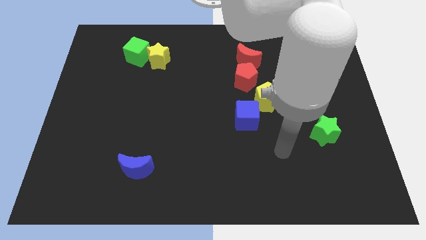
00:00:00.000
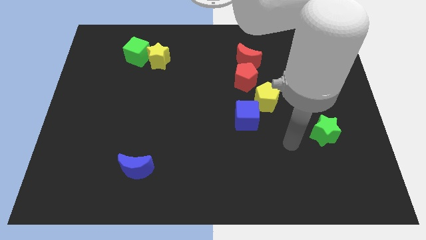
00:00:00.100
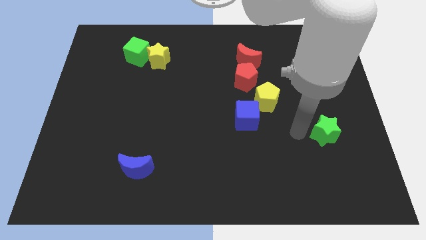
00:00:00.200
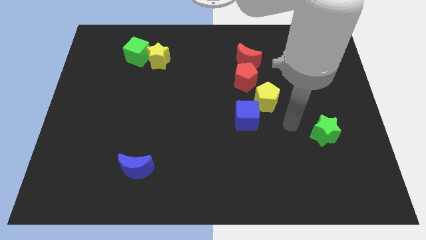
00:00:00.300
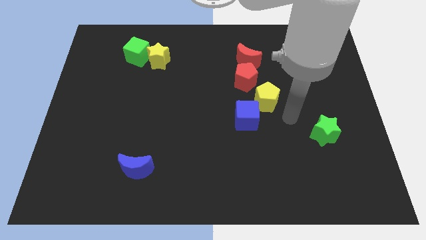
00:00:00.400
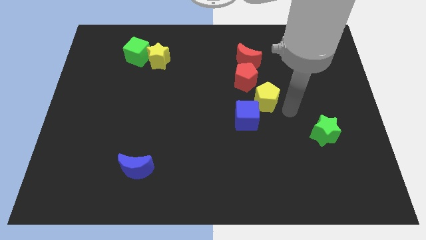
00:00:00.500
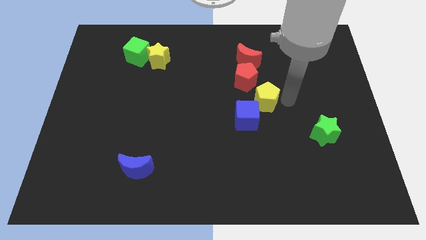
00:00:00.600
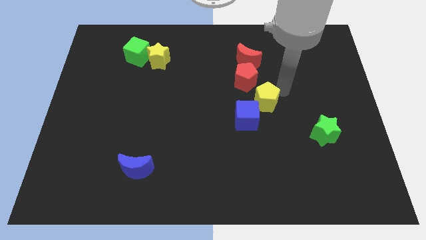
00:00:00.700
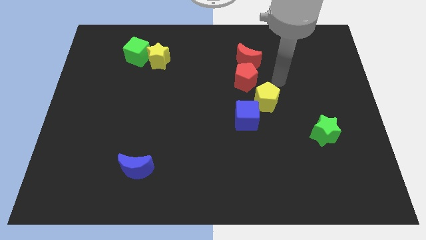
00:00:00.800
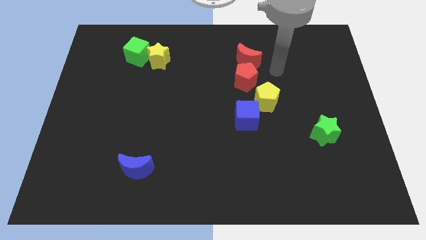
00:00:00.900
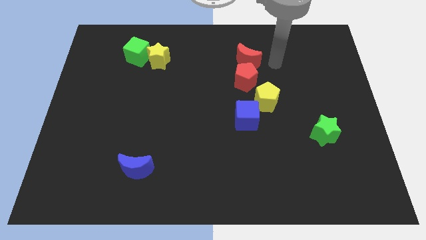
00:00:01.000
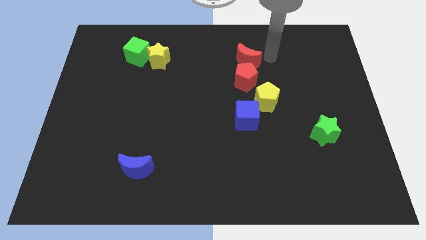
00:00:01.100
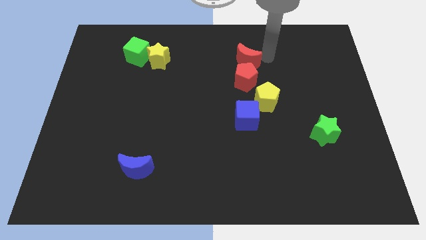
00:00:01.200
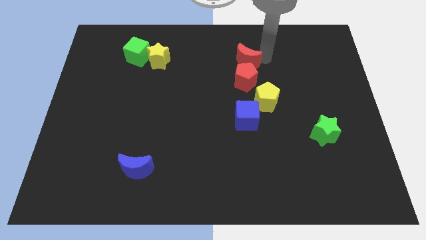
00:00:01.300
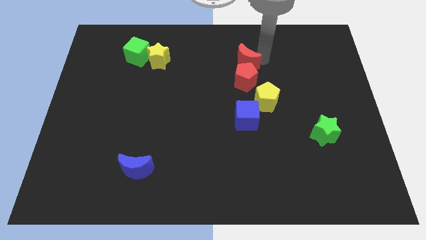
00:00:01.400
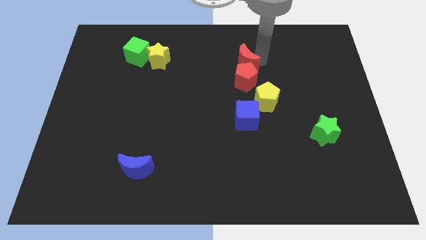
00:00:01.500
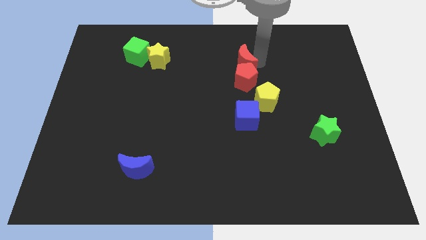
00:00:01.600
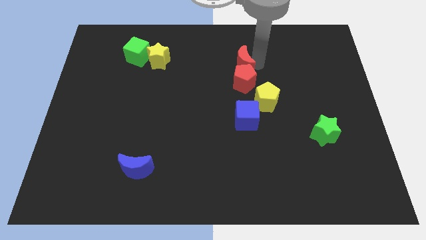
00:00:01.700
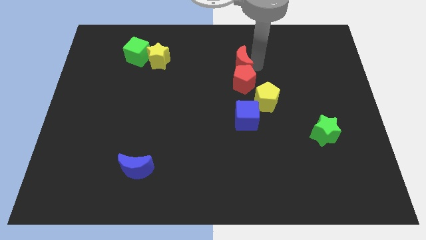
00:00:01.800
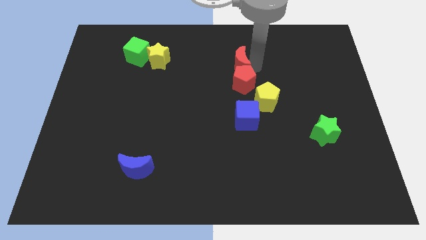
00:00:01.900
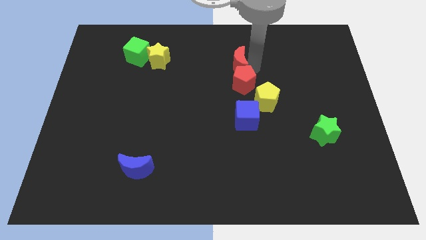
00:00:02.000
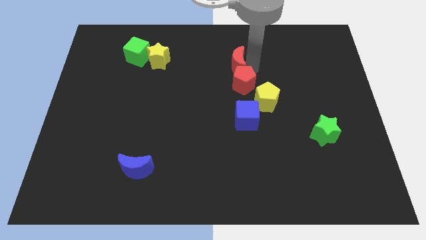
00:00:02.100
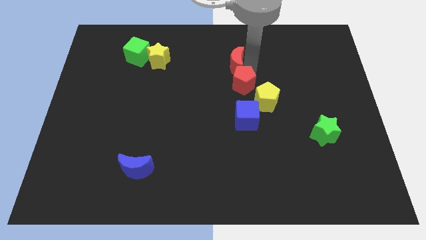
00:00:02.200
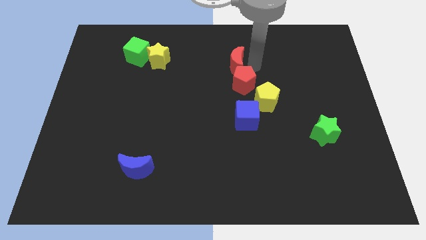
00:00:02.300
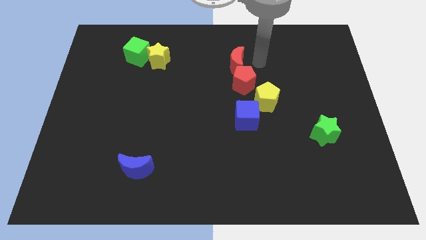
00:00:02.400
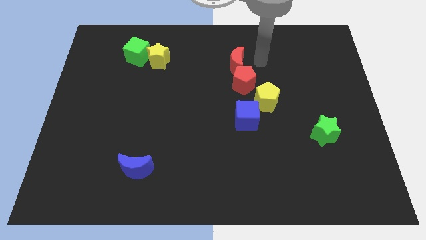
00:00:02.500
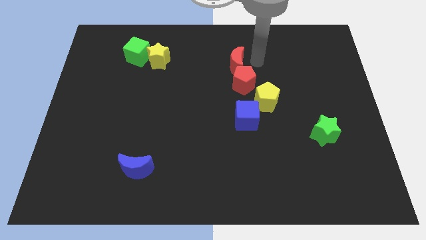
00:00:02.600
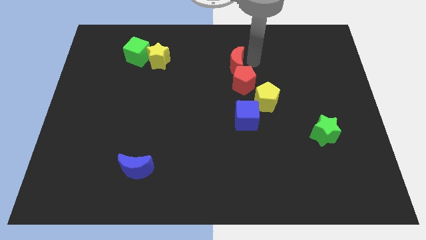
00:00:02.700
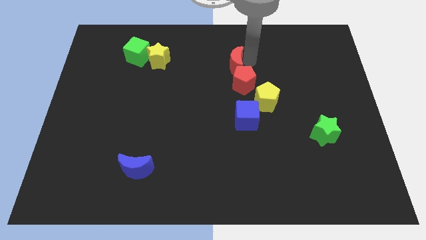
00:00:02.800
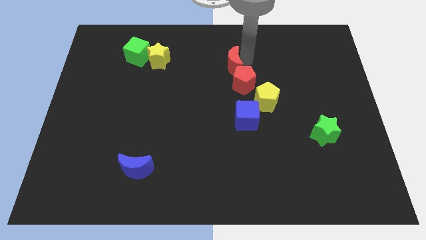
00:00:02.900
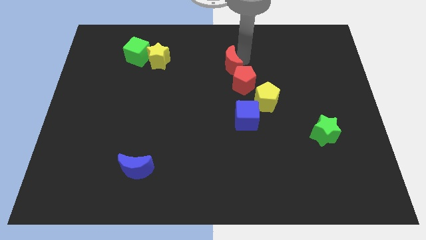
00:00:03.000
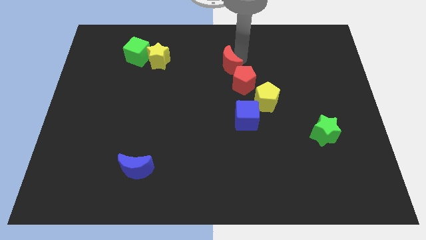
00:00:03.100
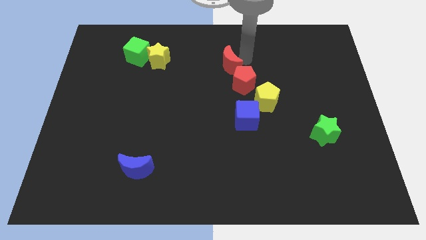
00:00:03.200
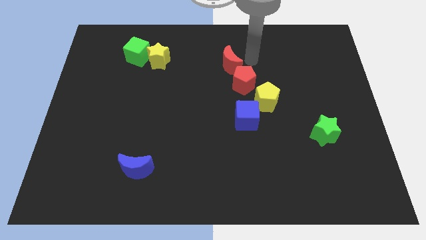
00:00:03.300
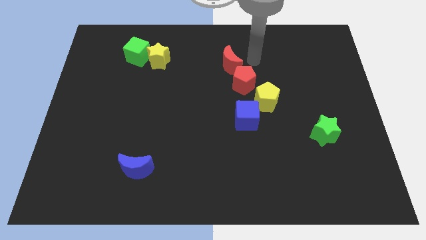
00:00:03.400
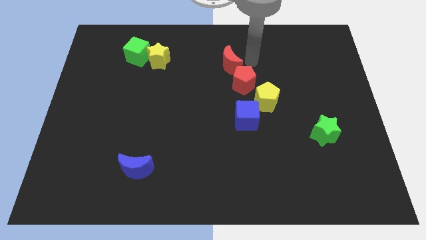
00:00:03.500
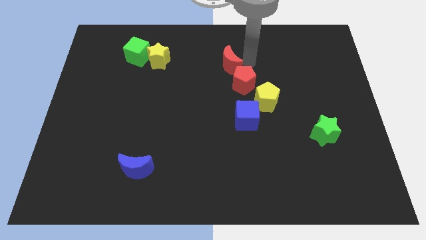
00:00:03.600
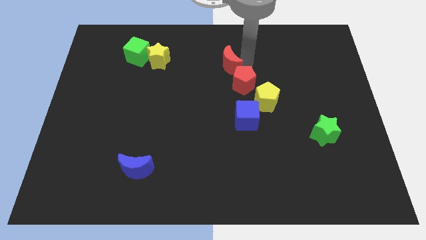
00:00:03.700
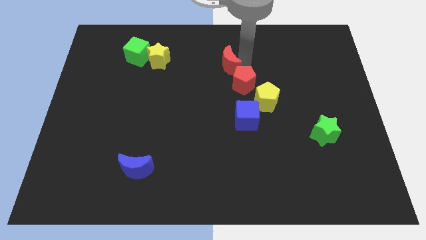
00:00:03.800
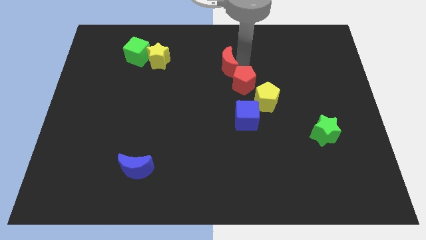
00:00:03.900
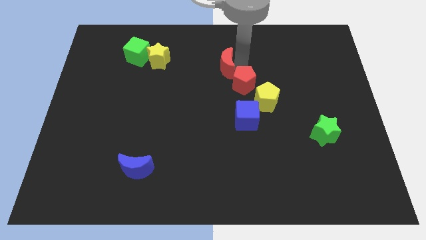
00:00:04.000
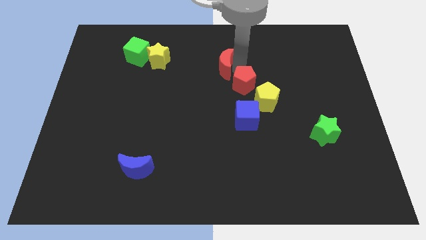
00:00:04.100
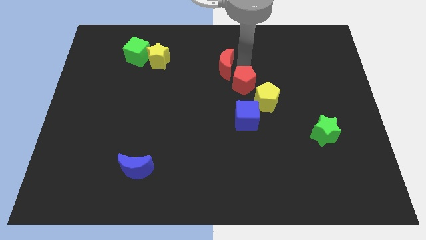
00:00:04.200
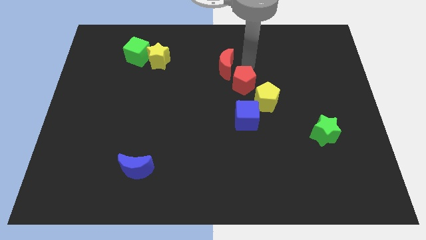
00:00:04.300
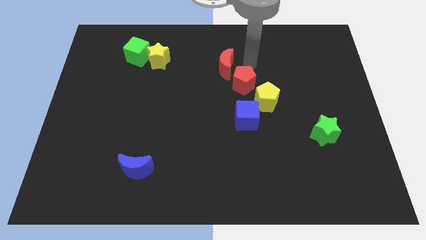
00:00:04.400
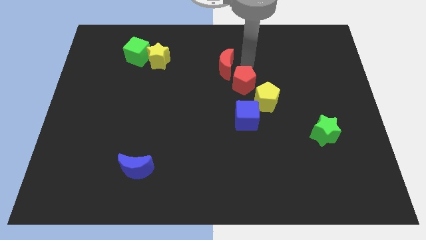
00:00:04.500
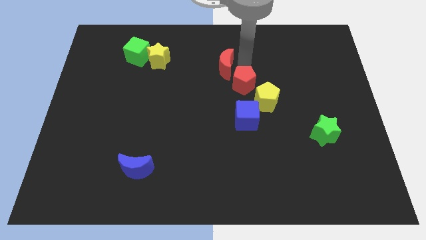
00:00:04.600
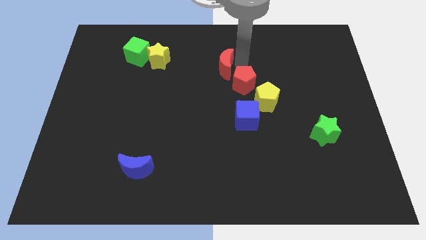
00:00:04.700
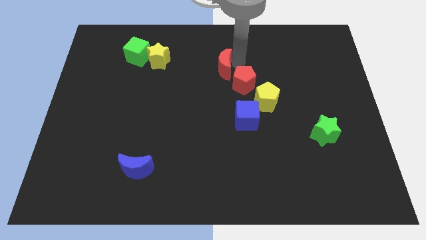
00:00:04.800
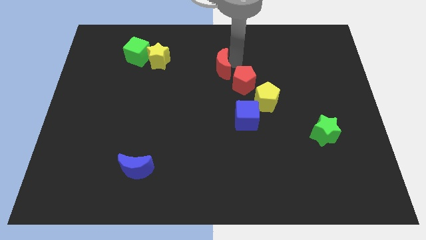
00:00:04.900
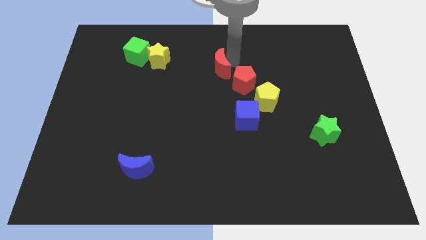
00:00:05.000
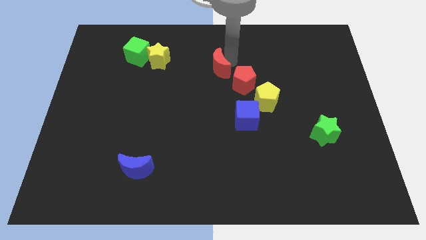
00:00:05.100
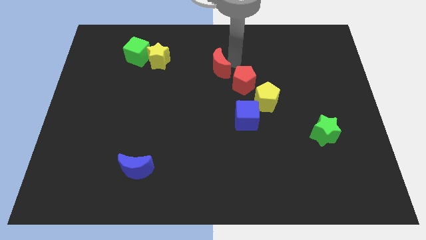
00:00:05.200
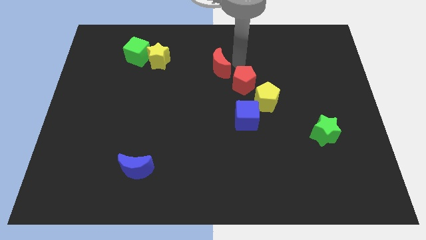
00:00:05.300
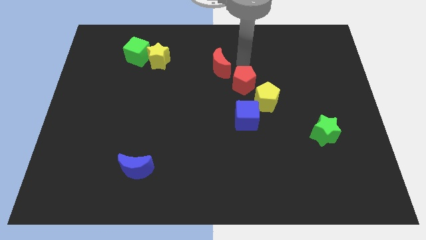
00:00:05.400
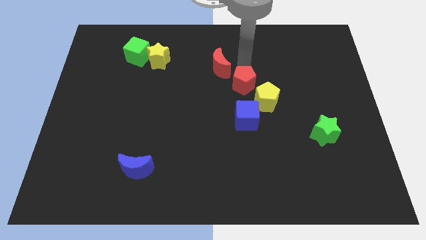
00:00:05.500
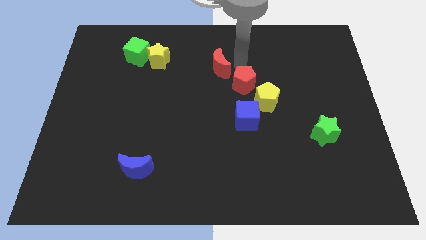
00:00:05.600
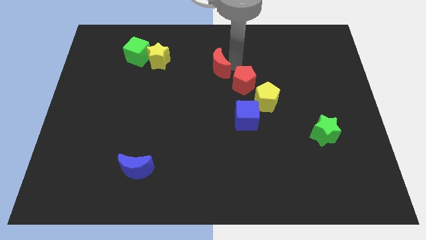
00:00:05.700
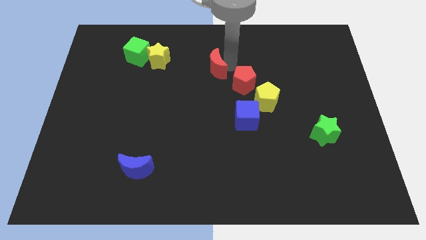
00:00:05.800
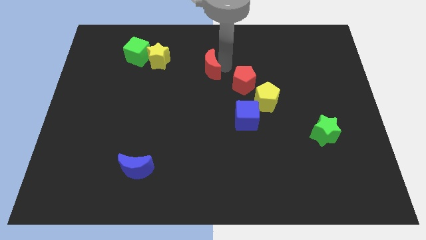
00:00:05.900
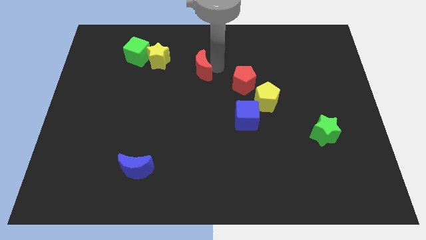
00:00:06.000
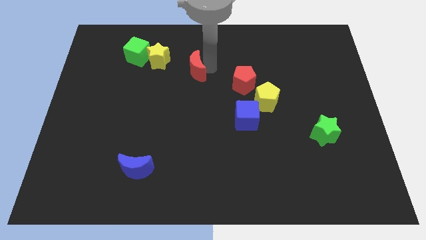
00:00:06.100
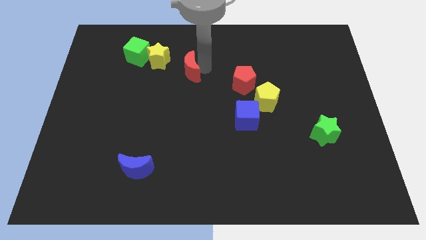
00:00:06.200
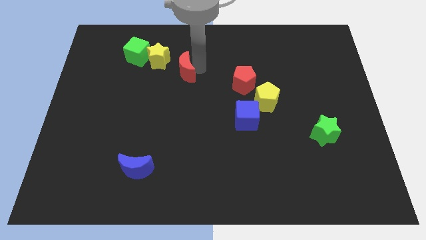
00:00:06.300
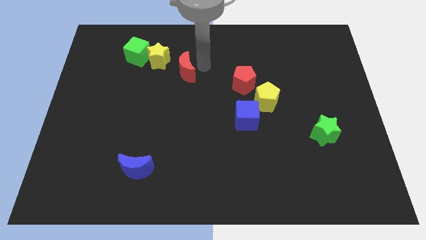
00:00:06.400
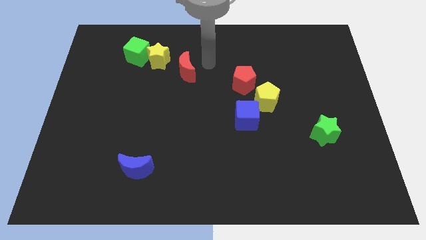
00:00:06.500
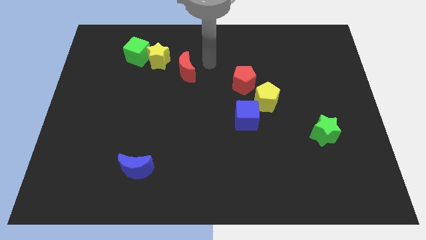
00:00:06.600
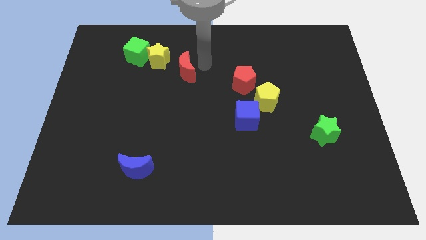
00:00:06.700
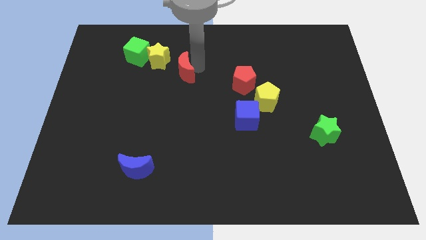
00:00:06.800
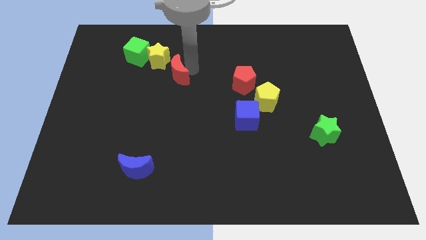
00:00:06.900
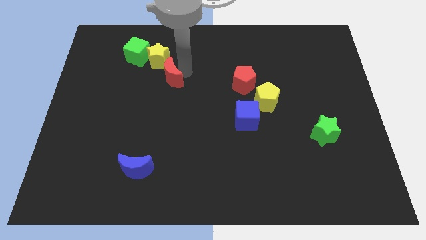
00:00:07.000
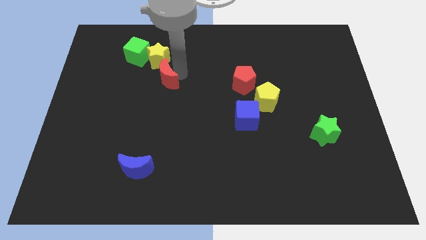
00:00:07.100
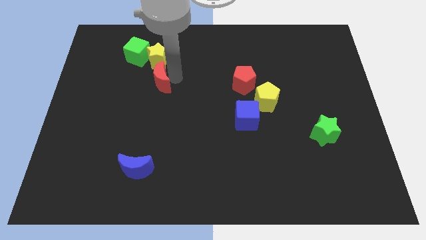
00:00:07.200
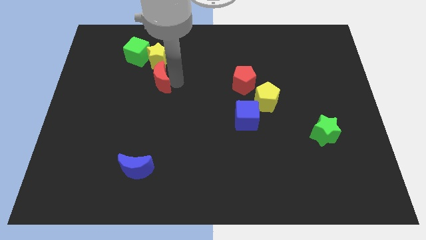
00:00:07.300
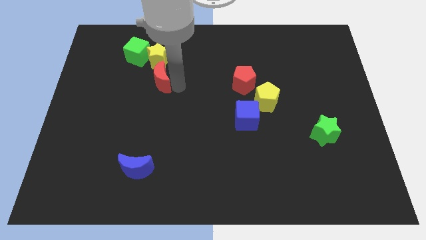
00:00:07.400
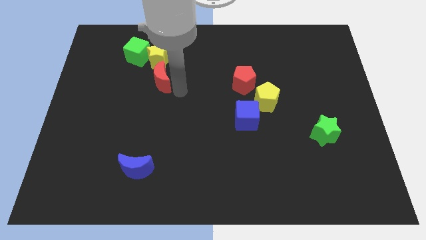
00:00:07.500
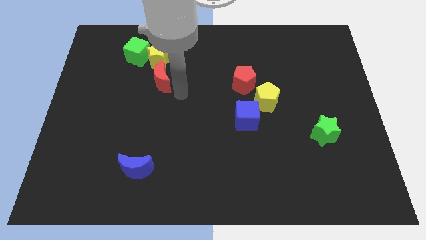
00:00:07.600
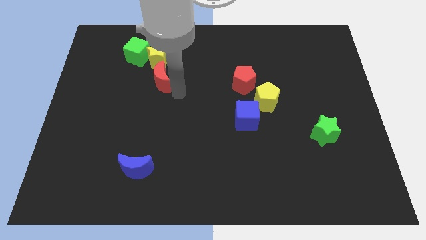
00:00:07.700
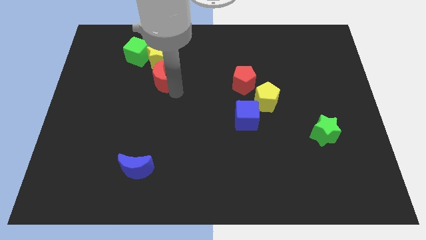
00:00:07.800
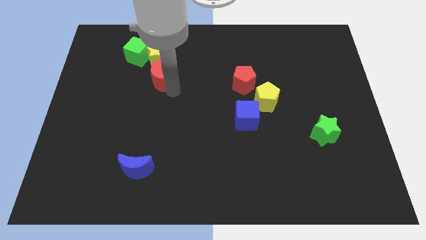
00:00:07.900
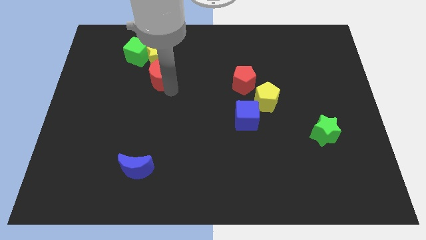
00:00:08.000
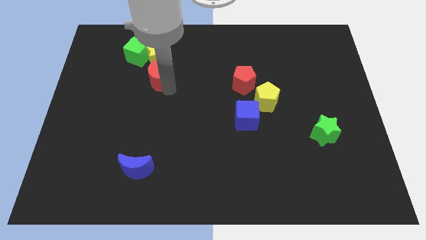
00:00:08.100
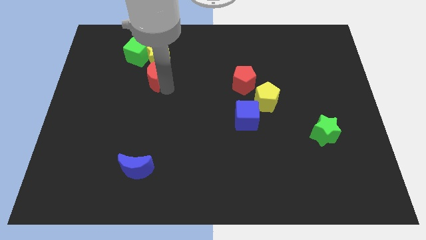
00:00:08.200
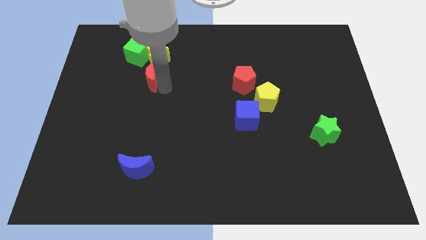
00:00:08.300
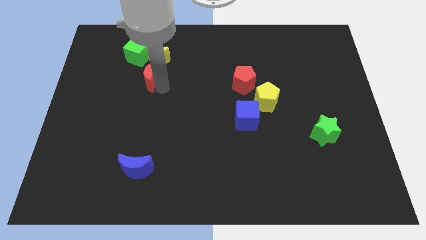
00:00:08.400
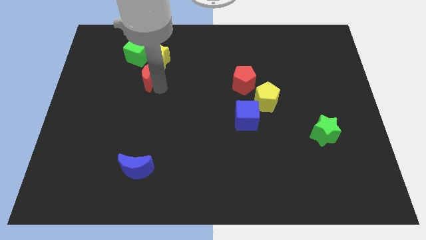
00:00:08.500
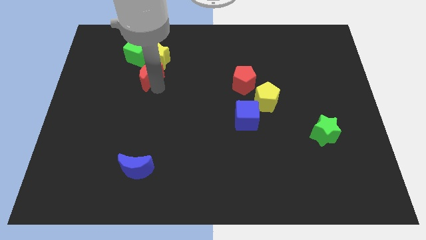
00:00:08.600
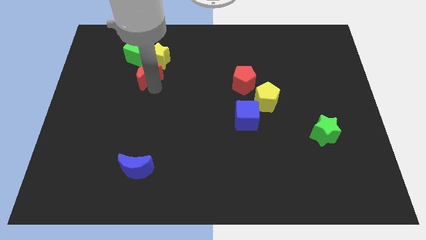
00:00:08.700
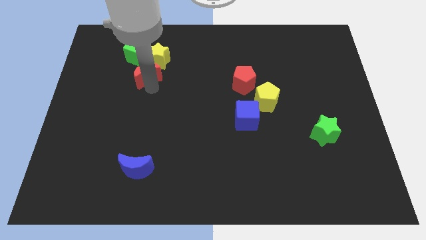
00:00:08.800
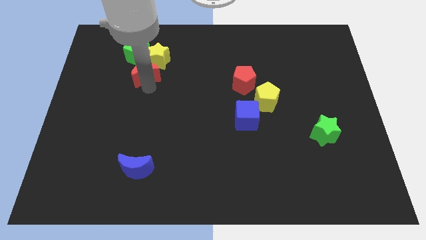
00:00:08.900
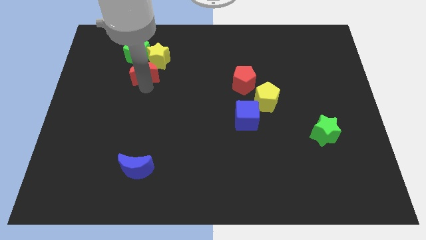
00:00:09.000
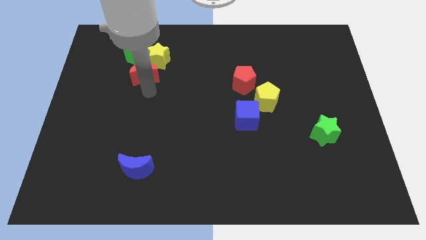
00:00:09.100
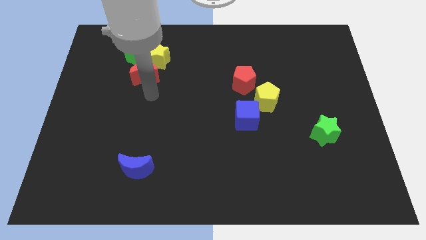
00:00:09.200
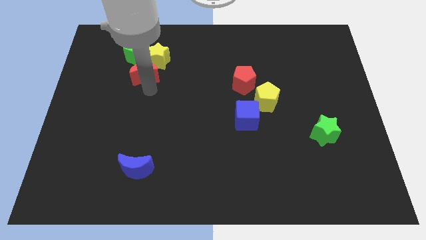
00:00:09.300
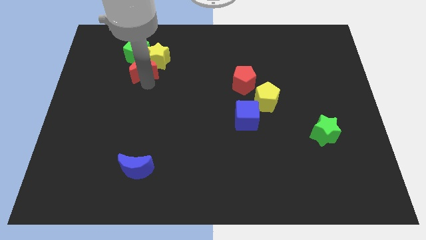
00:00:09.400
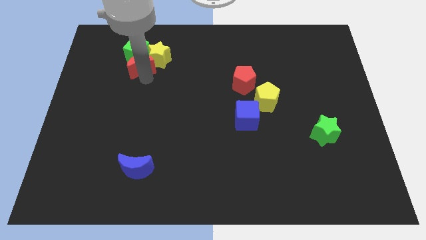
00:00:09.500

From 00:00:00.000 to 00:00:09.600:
push the red moon close to the green cube
